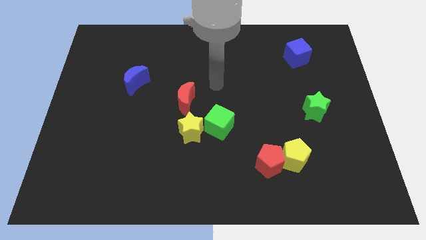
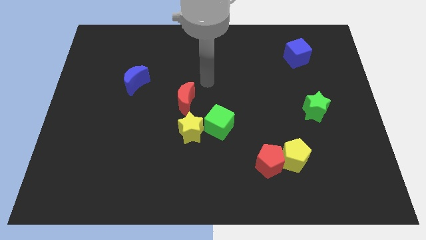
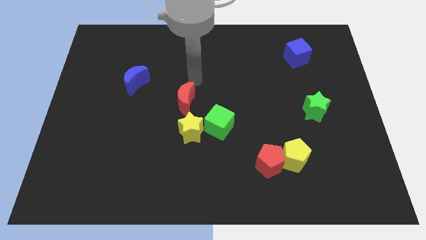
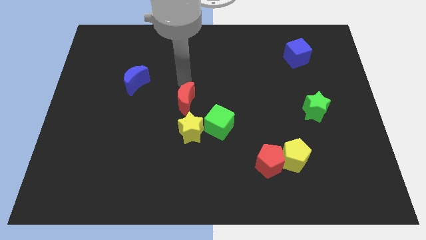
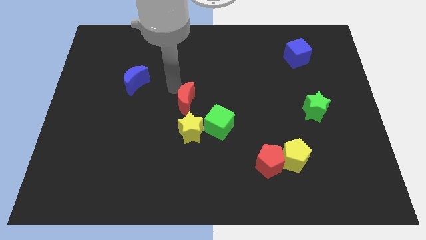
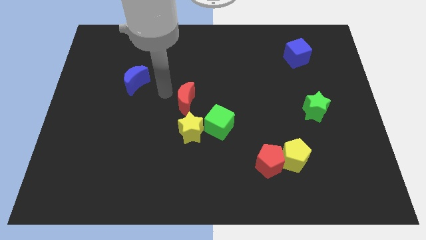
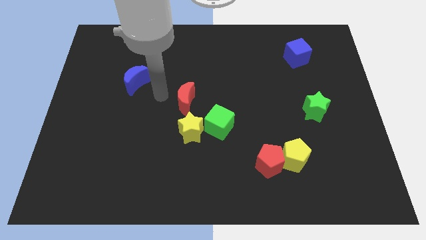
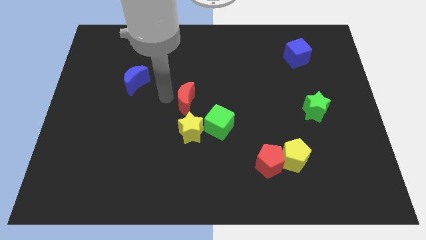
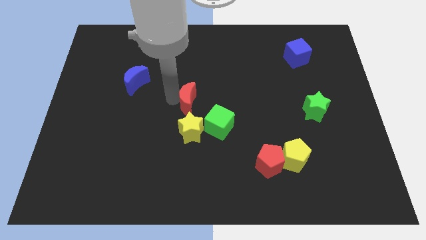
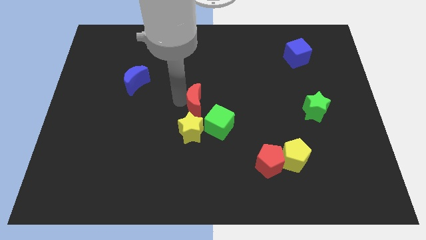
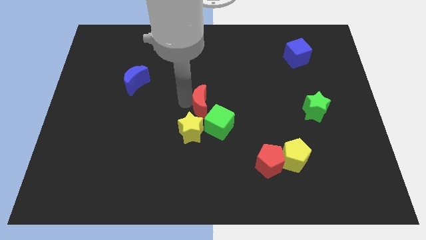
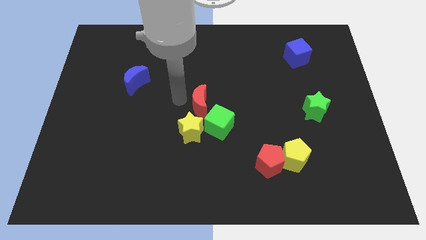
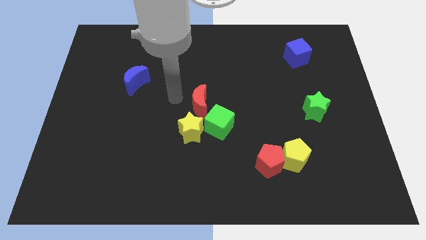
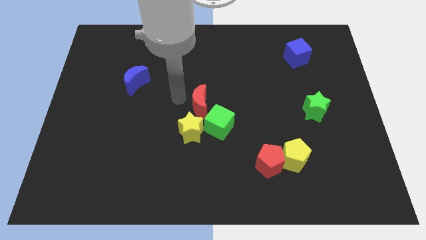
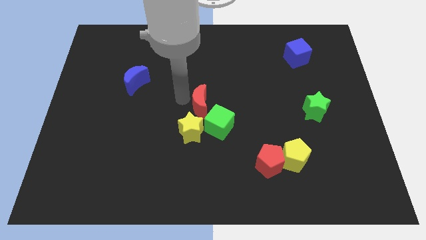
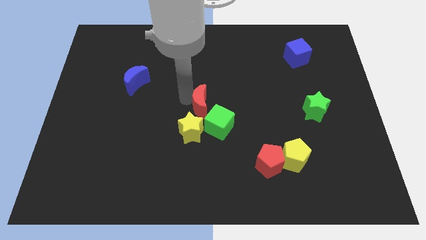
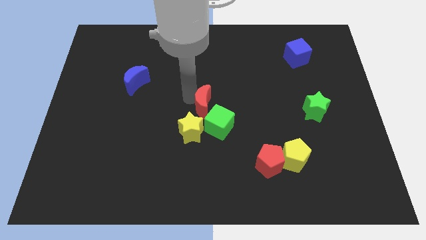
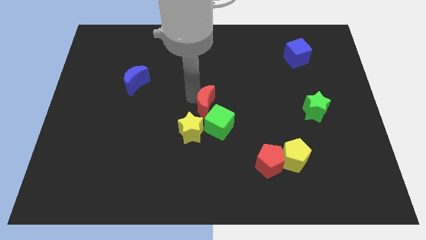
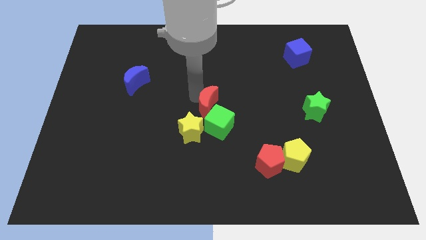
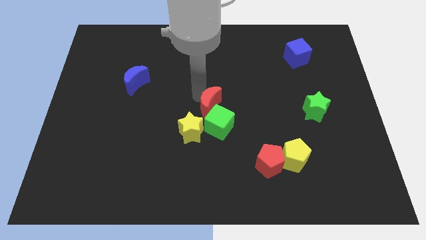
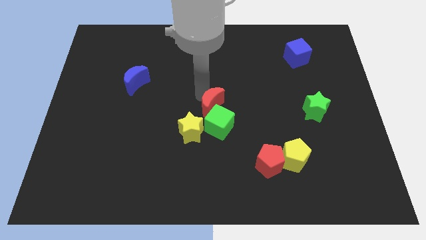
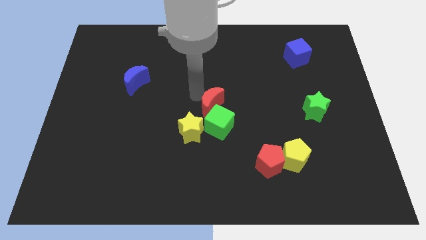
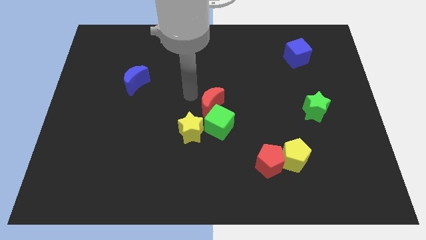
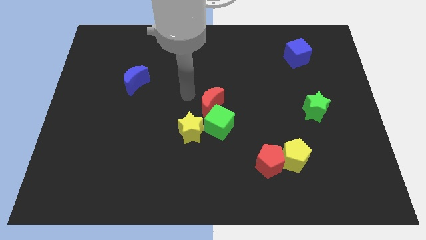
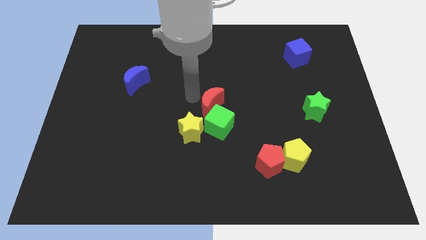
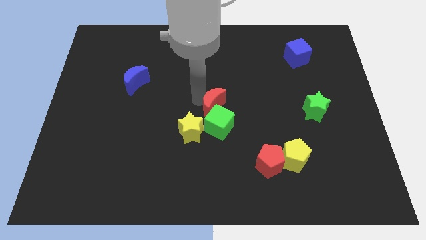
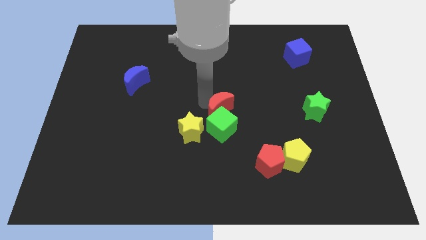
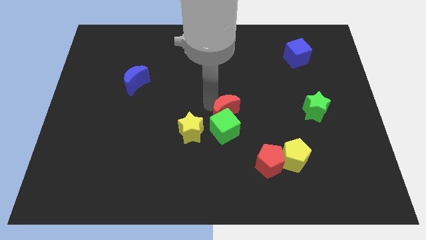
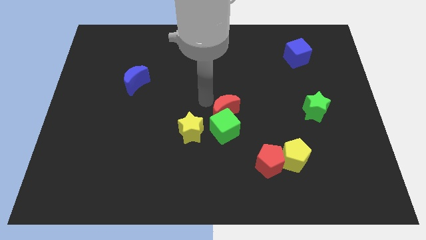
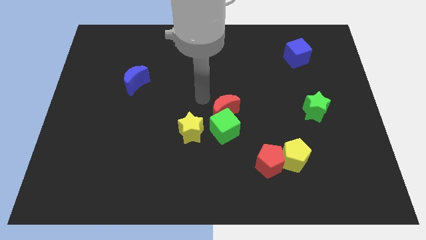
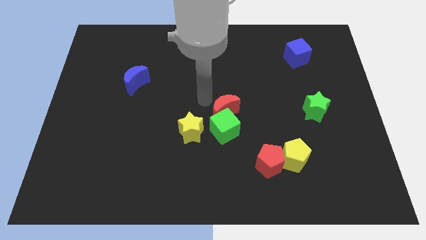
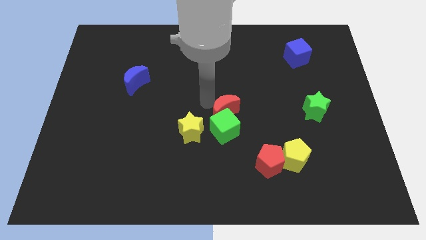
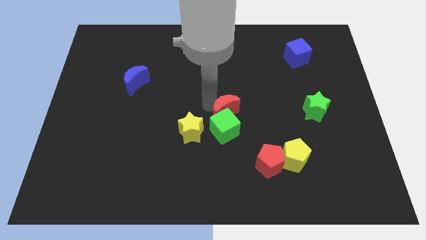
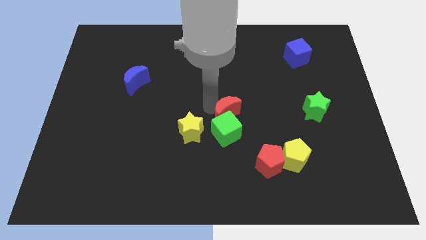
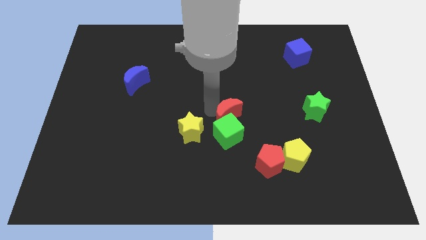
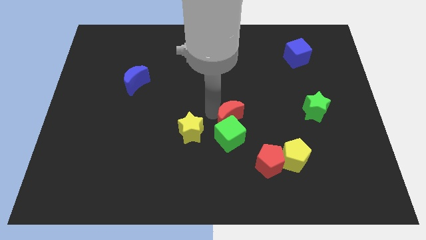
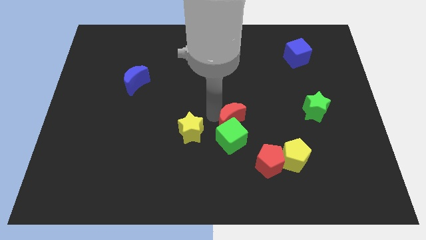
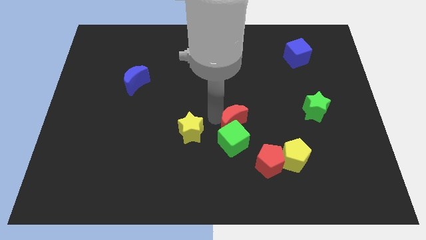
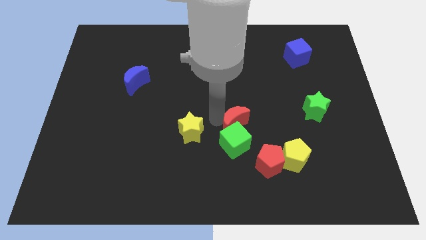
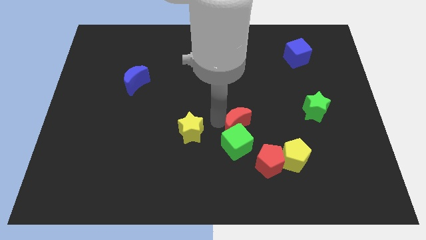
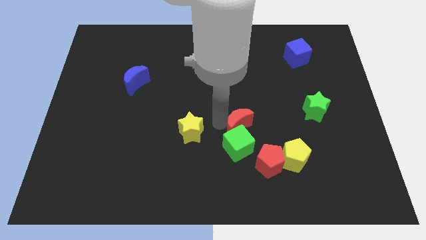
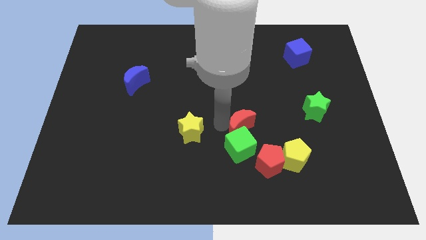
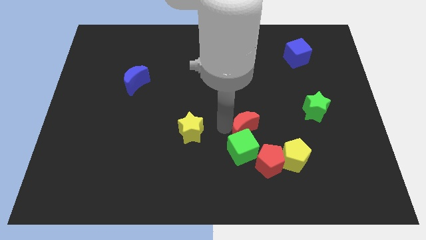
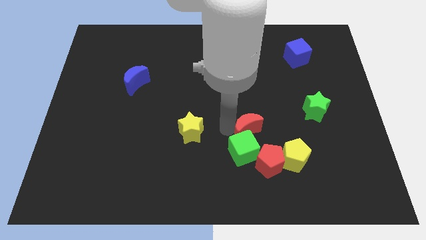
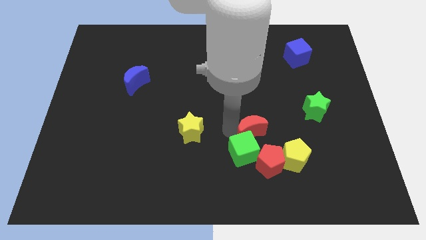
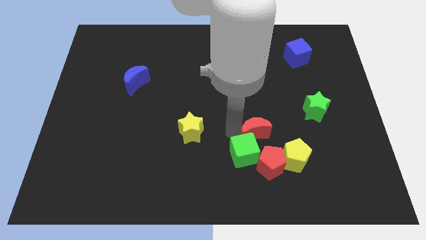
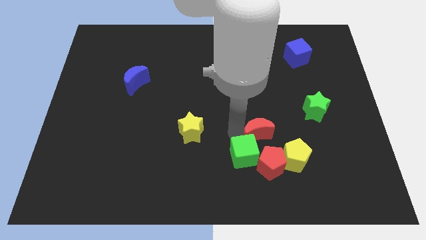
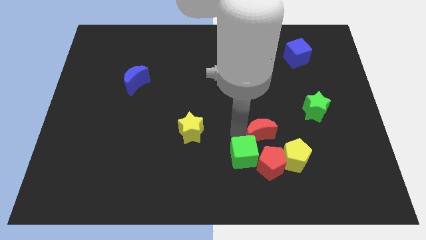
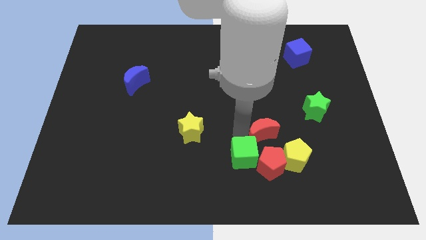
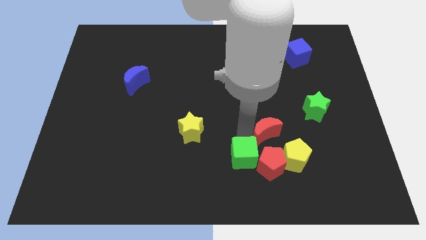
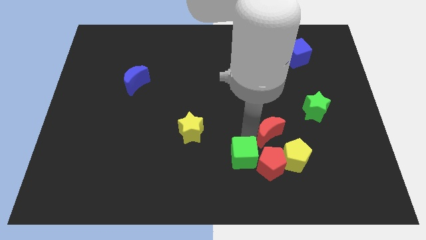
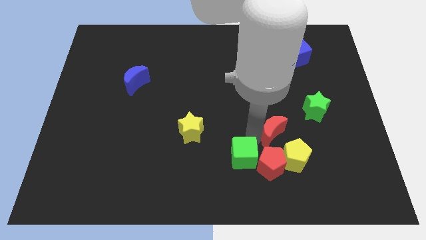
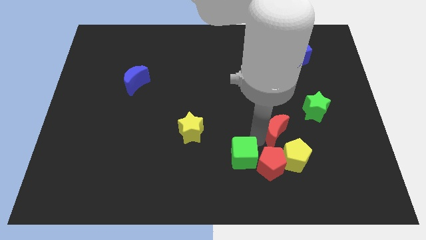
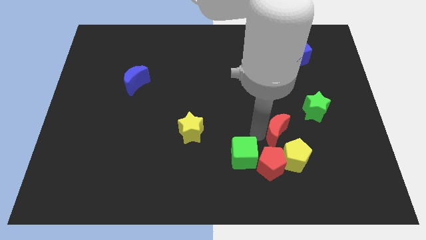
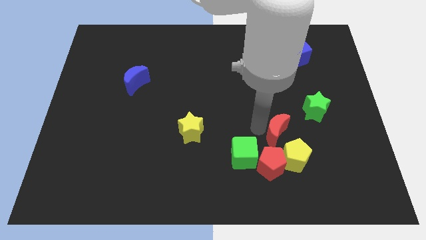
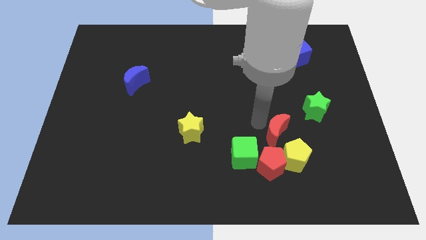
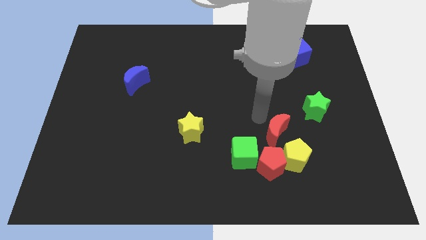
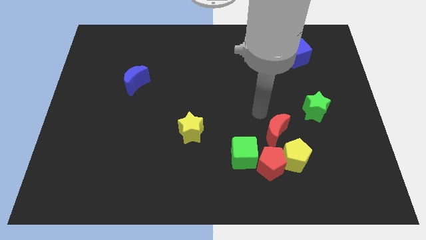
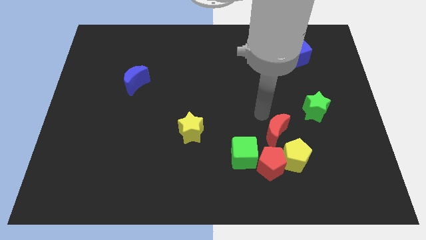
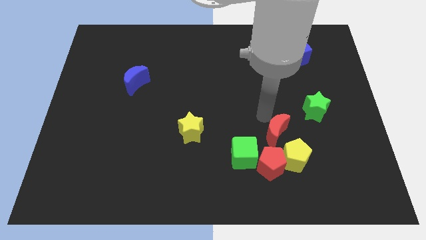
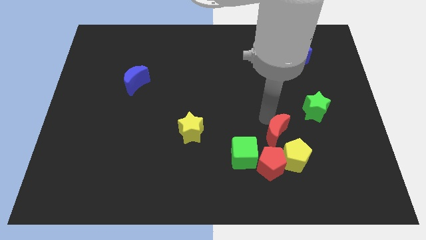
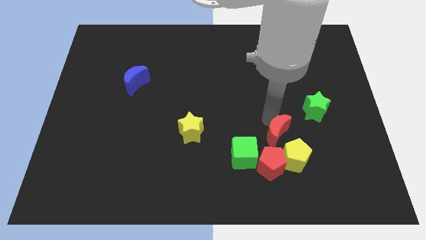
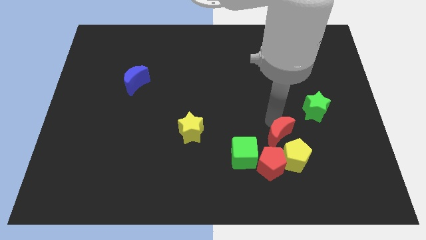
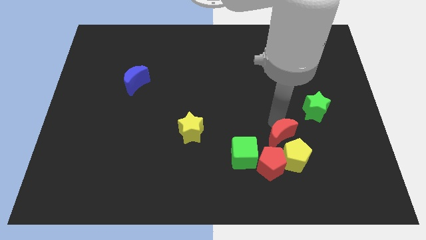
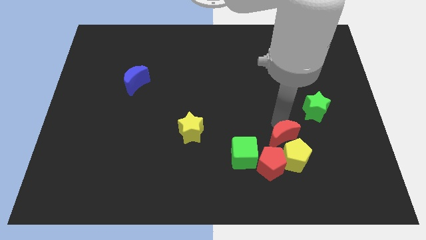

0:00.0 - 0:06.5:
push the red moon towards the yellow pentagon

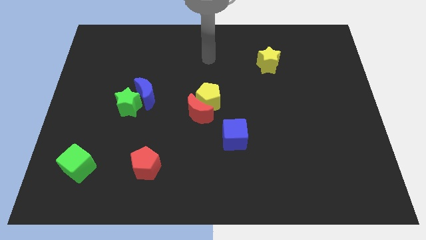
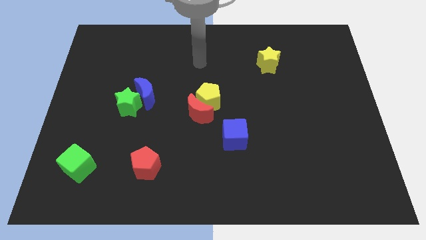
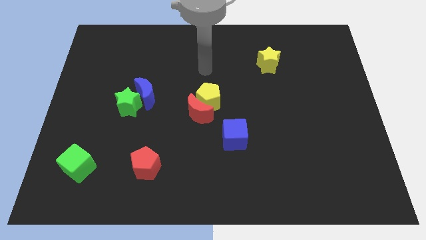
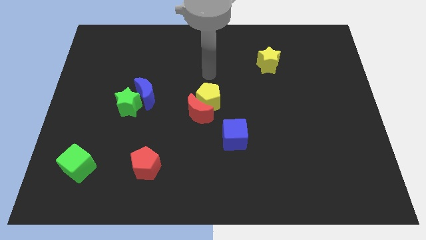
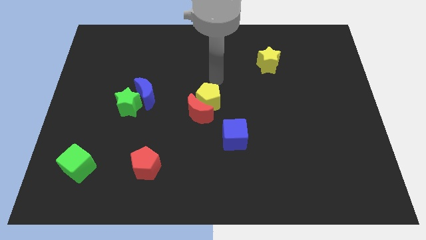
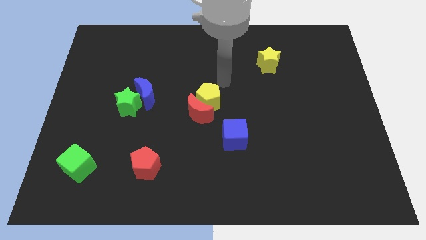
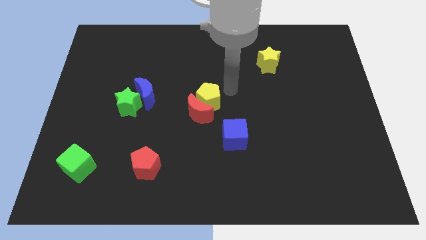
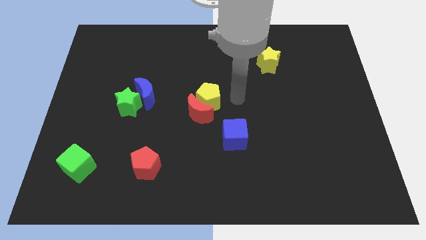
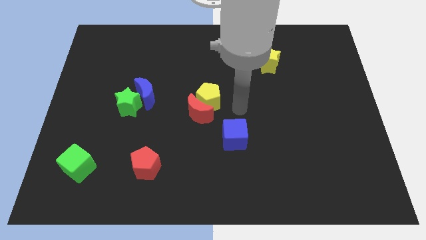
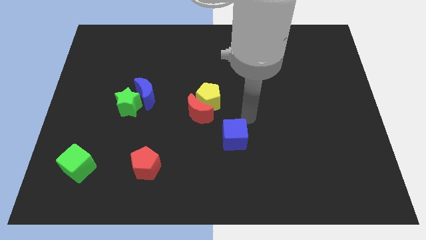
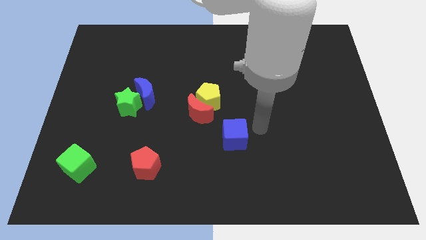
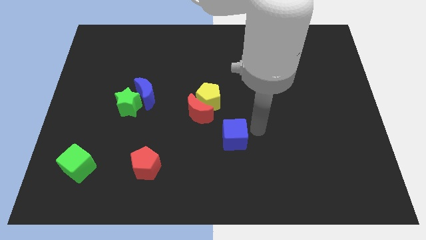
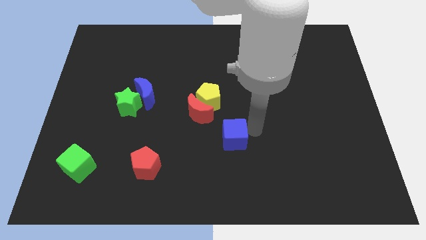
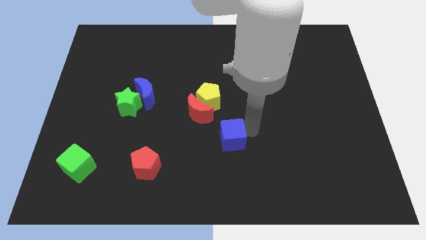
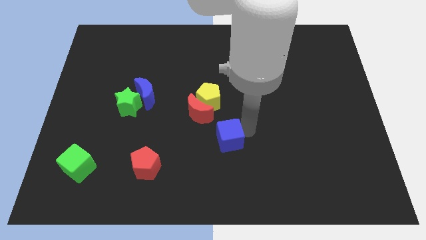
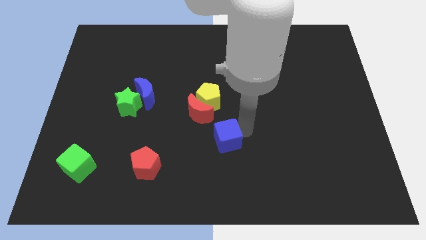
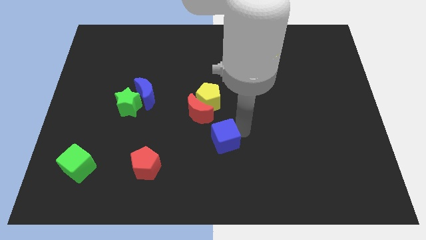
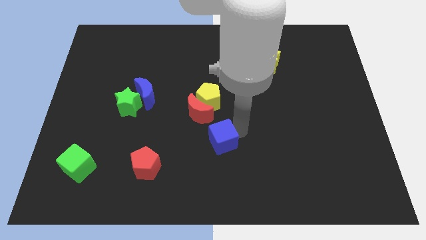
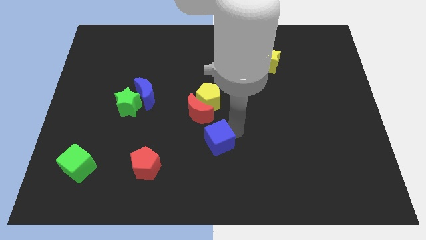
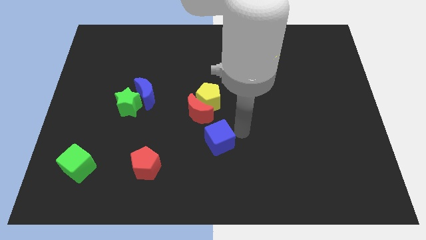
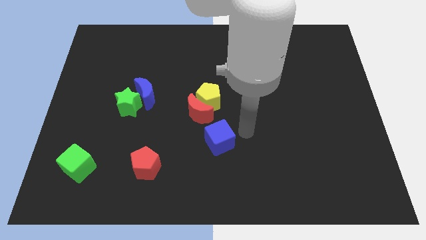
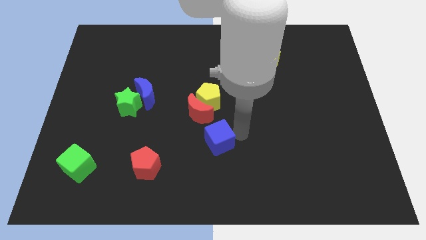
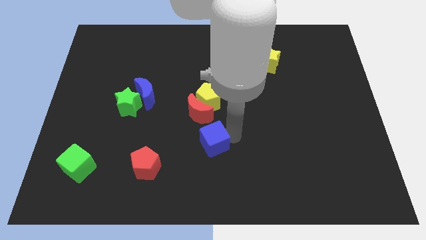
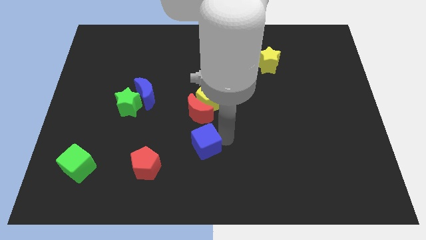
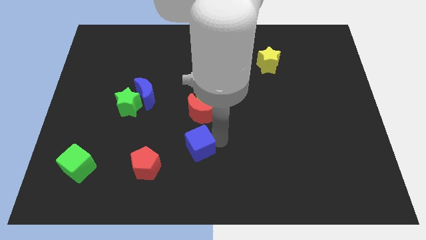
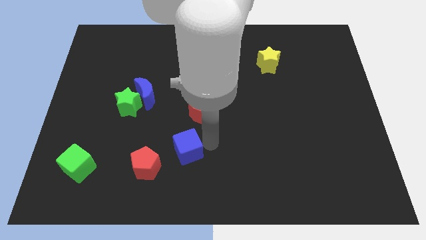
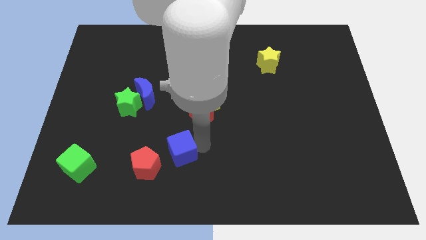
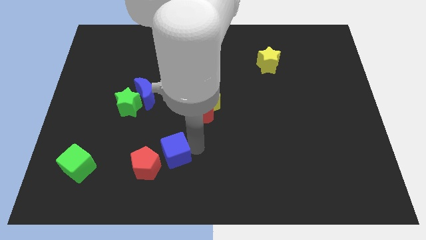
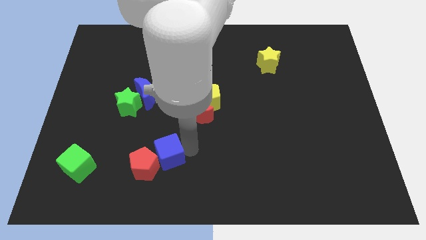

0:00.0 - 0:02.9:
move the blue cube close to the red pentagon
